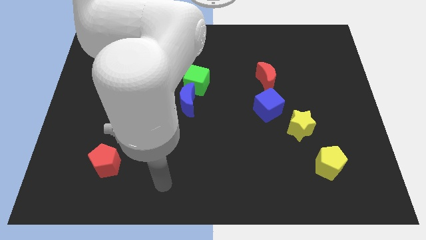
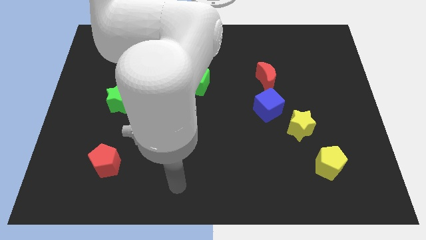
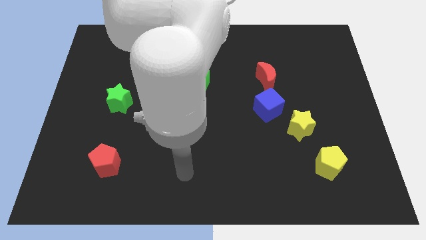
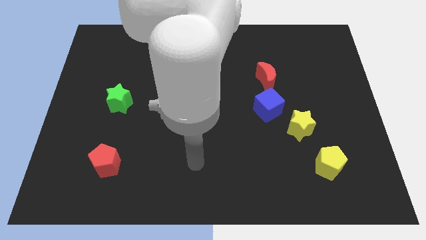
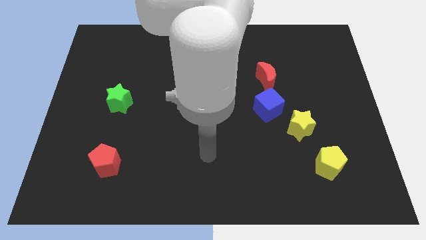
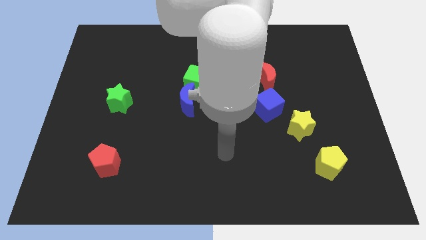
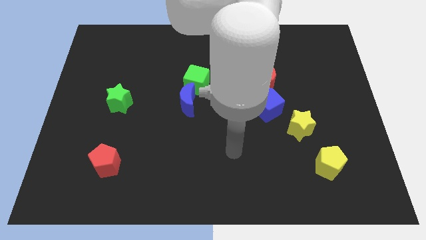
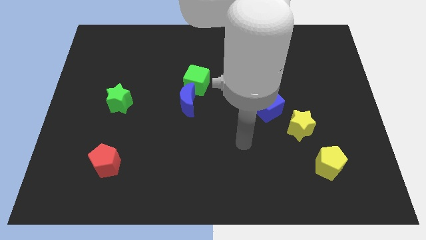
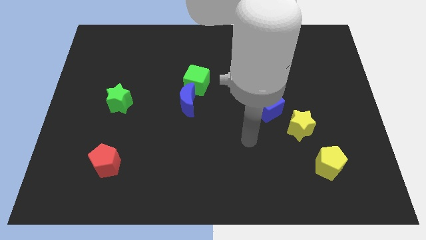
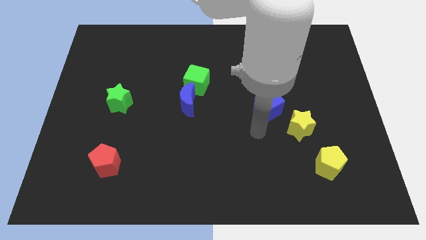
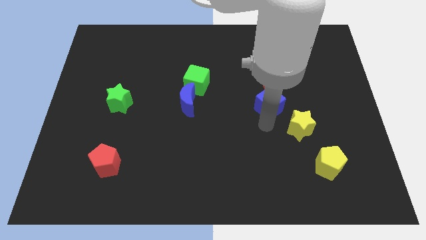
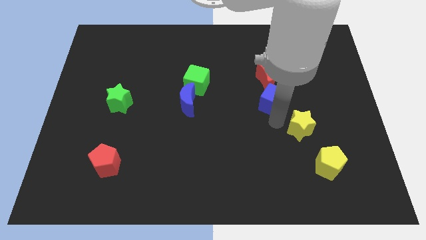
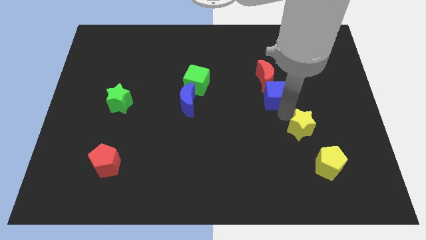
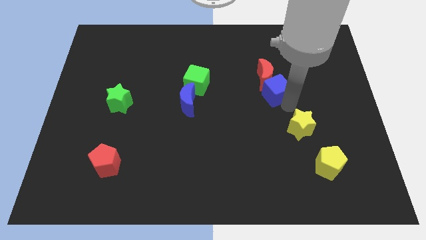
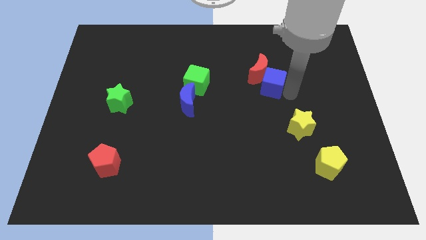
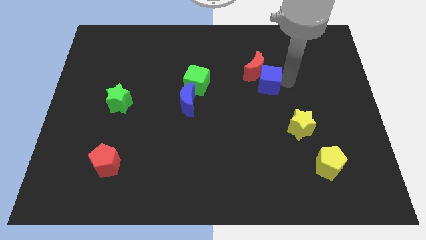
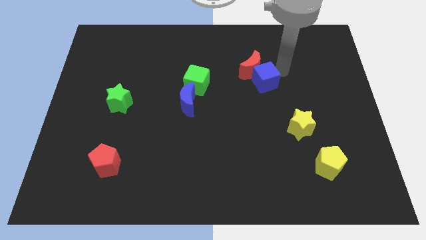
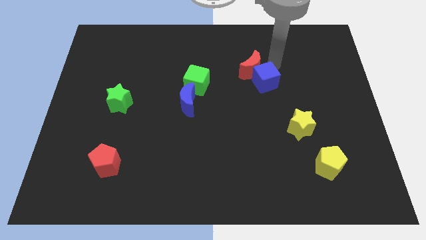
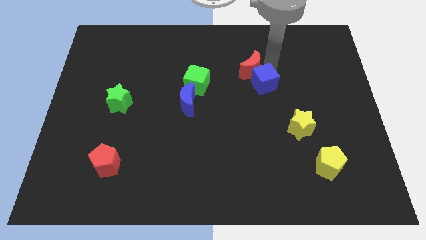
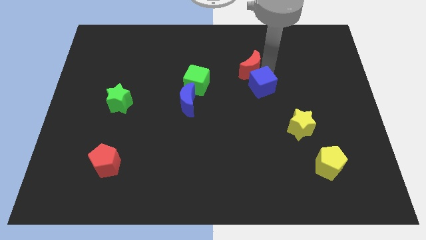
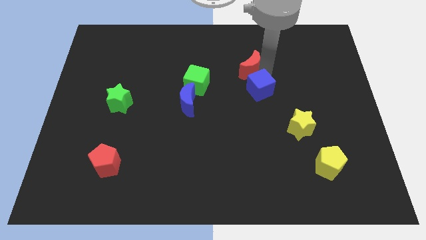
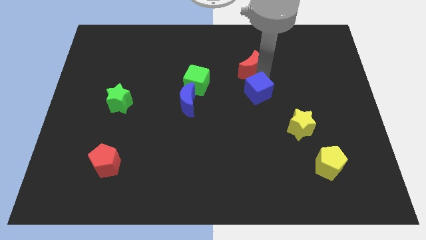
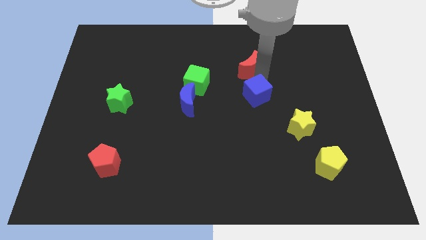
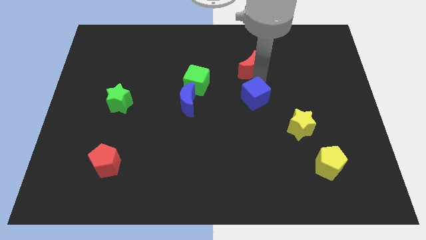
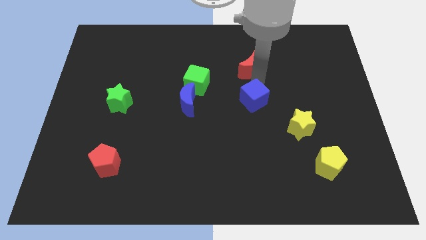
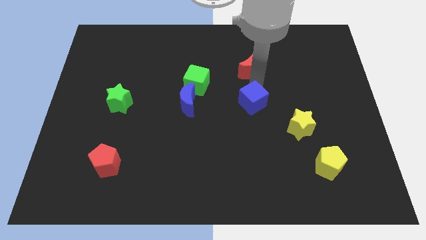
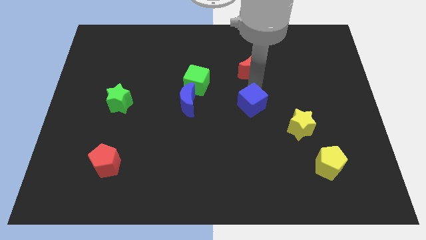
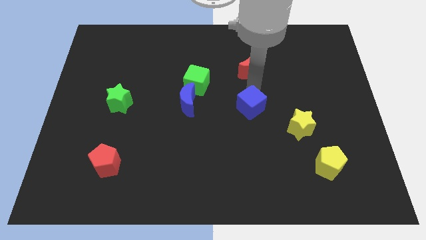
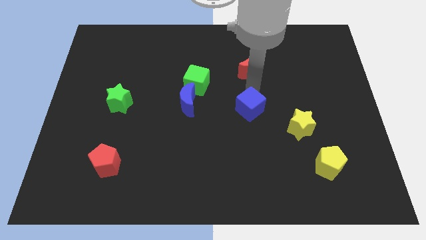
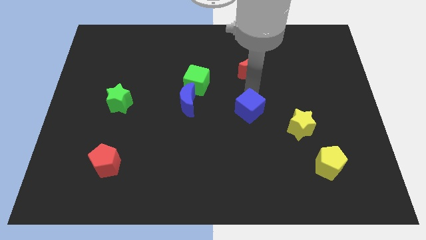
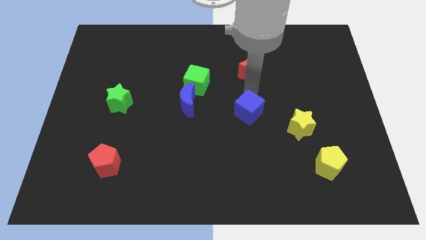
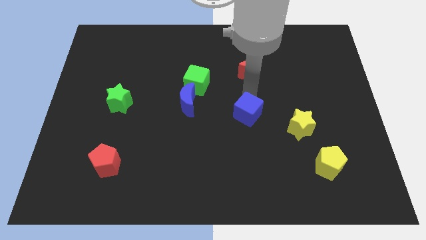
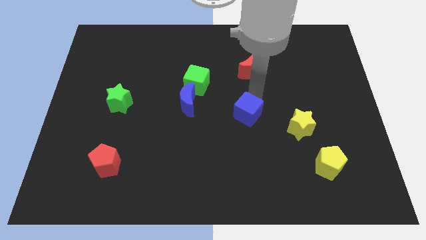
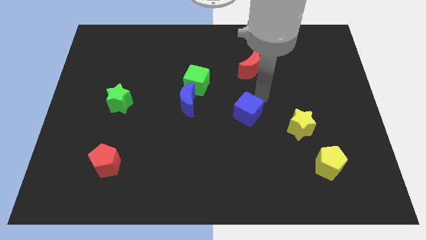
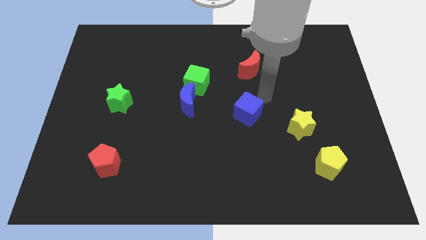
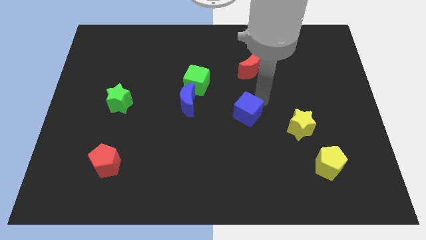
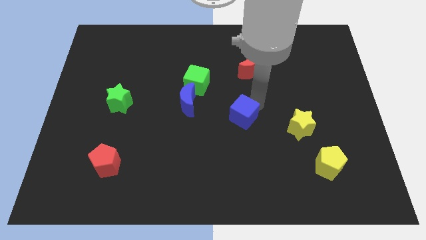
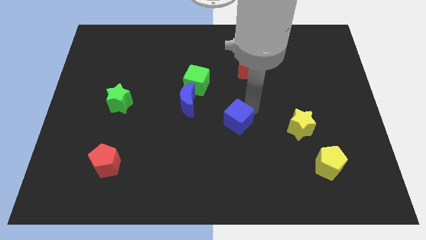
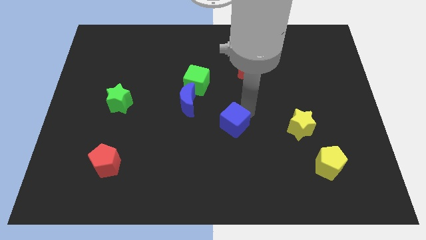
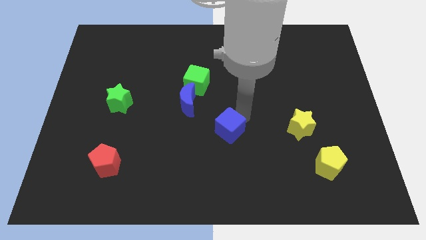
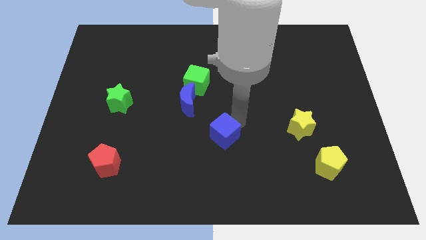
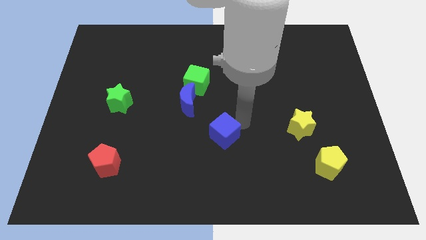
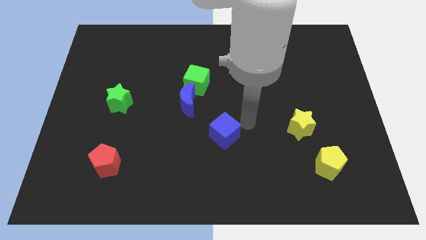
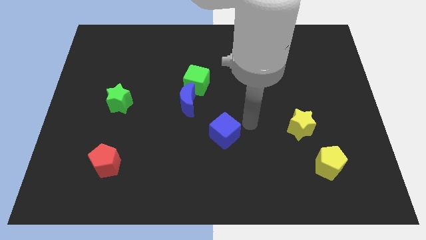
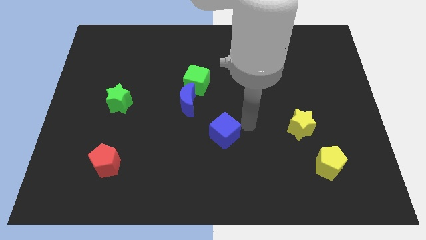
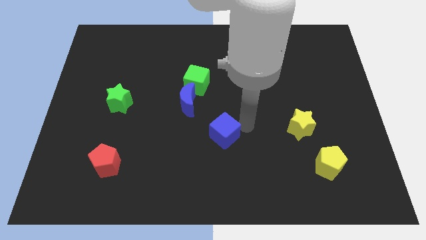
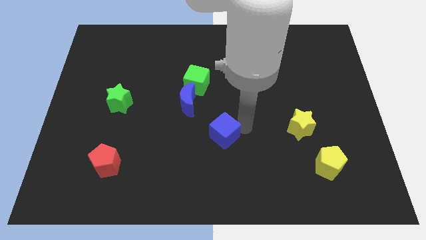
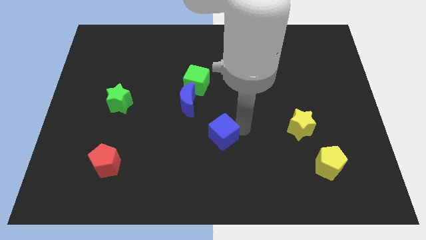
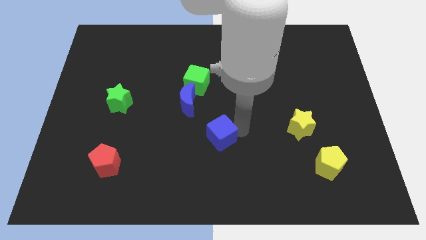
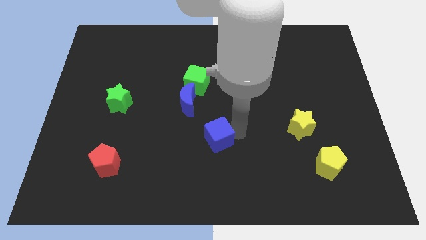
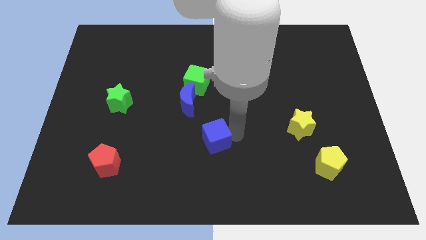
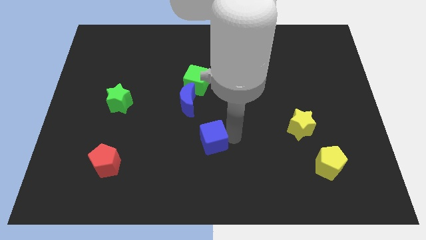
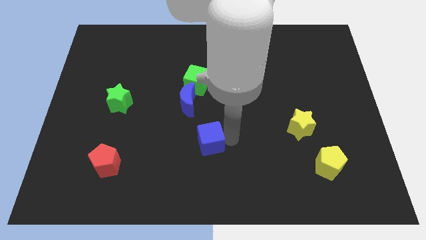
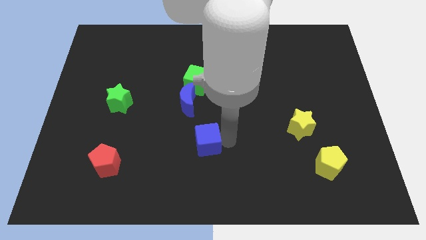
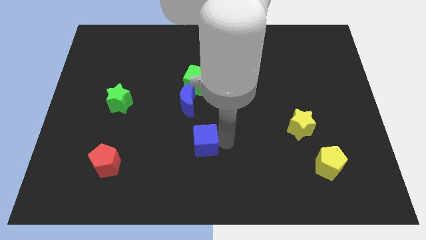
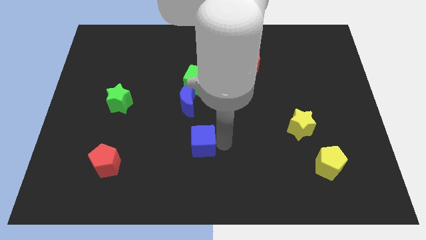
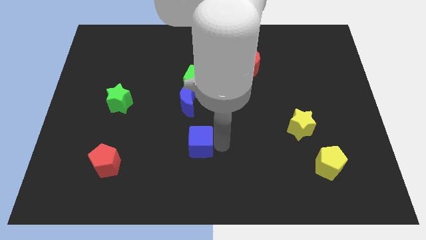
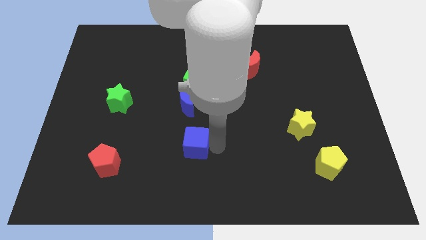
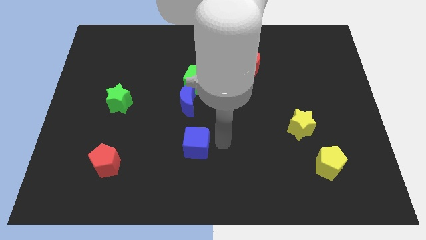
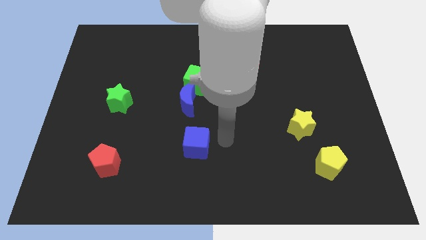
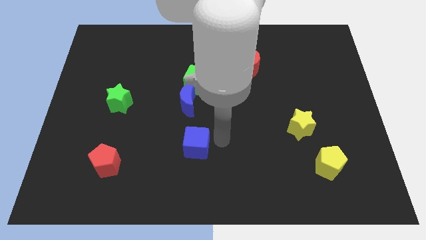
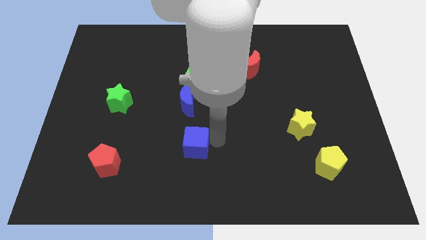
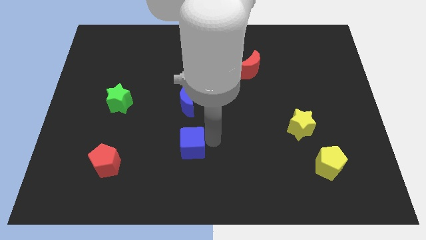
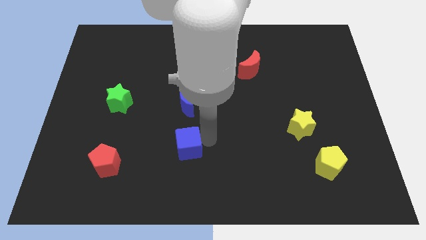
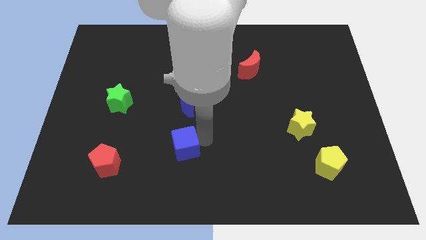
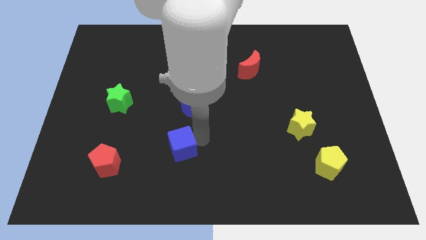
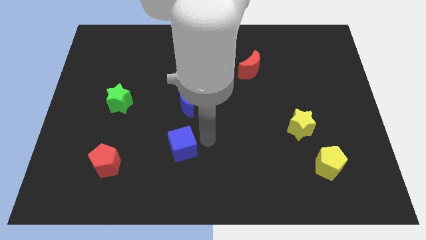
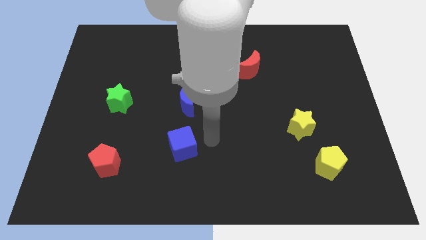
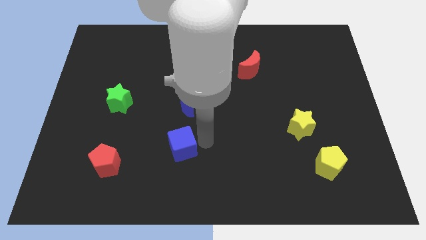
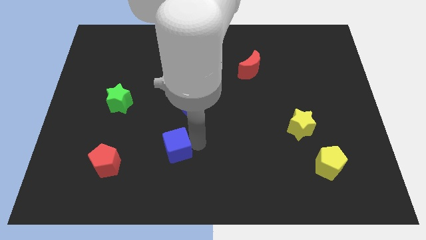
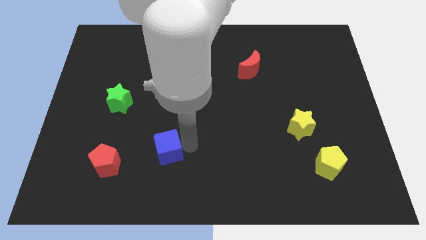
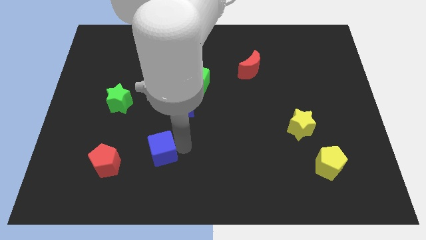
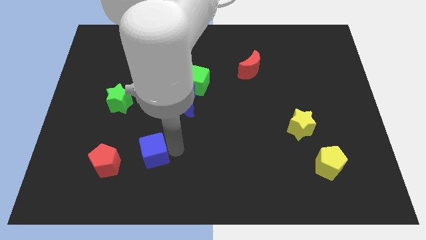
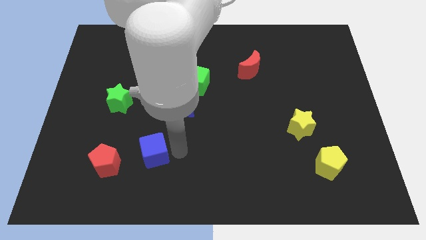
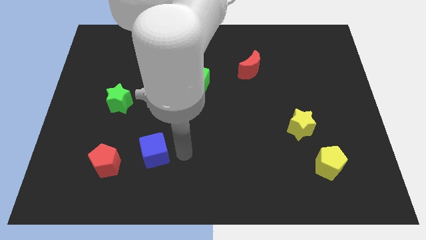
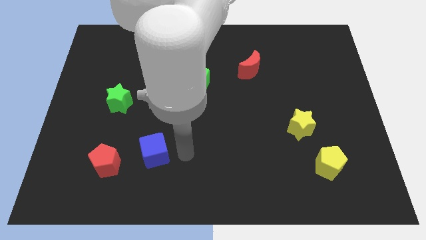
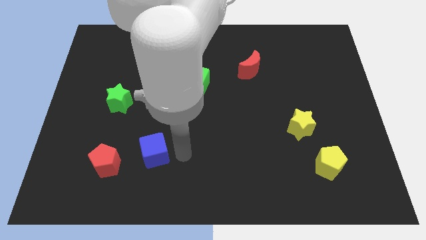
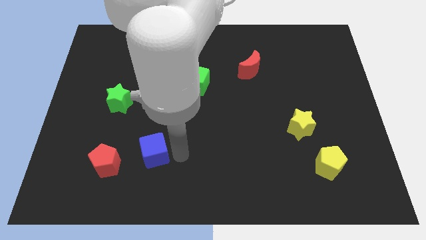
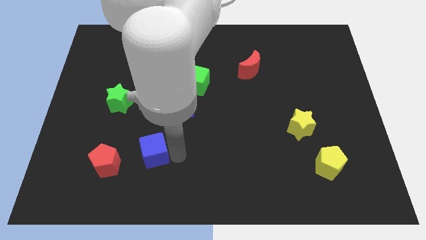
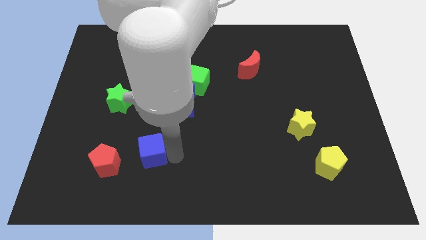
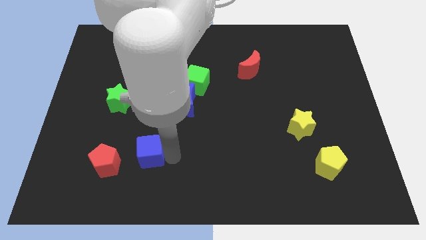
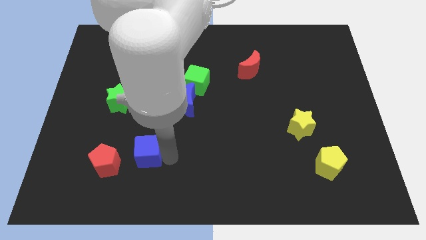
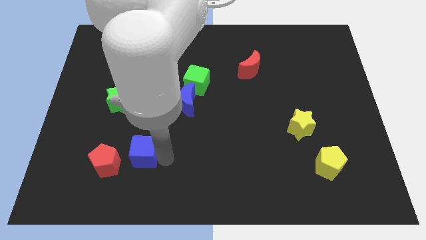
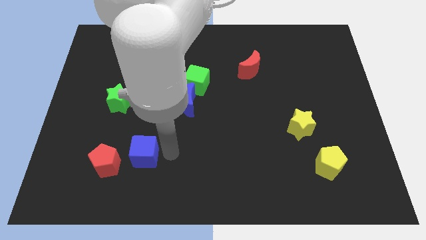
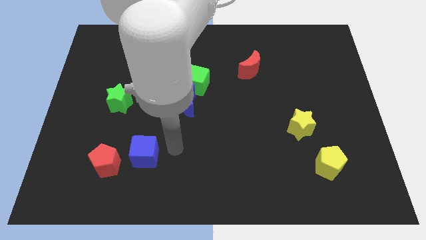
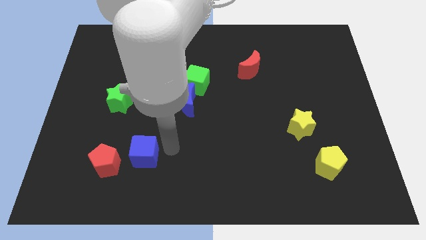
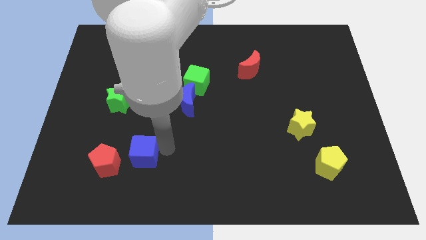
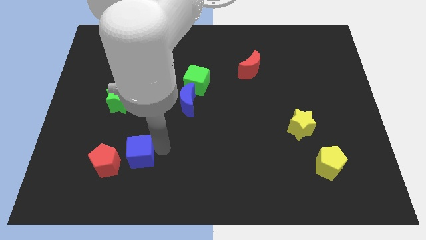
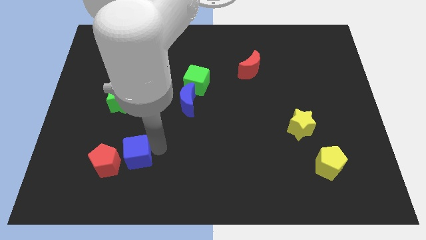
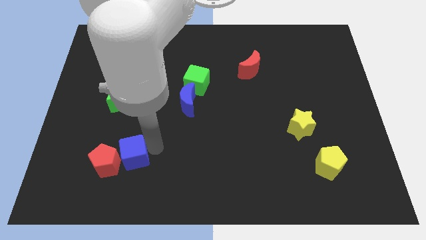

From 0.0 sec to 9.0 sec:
move the blue cube to the red pentagon
